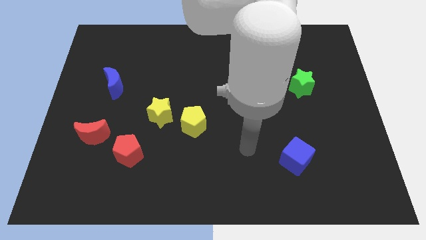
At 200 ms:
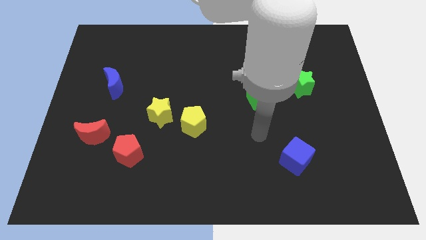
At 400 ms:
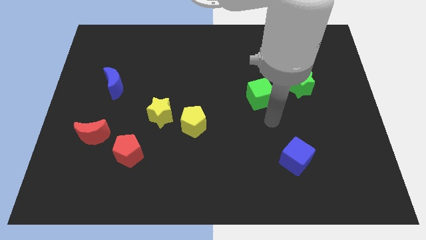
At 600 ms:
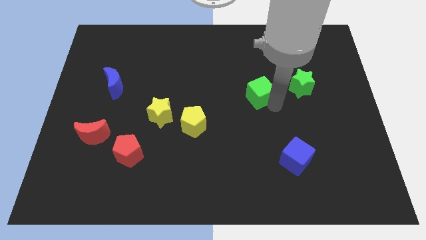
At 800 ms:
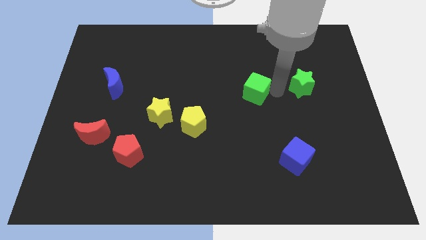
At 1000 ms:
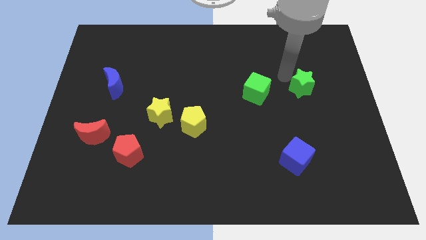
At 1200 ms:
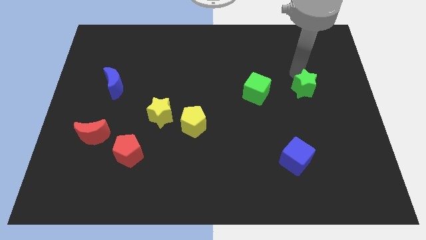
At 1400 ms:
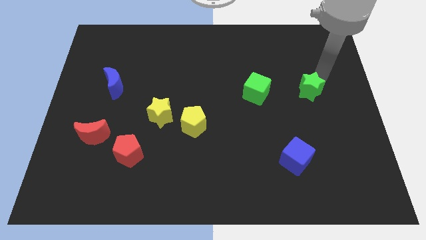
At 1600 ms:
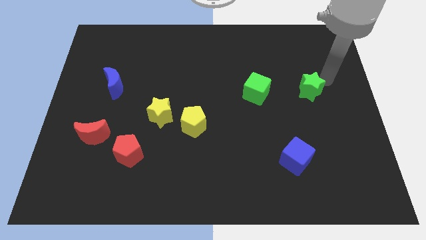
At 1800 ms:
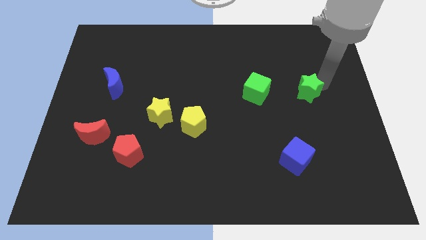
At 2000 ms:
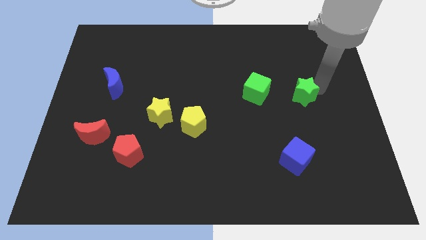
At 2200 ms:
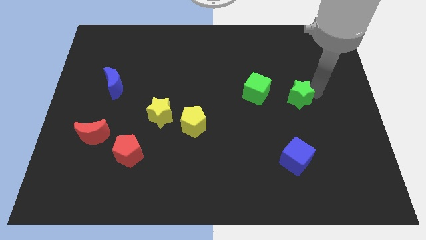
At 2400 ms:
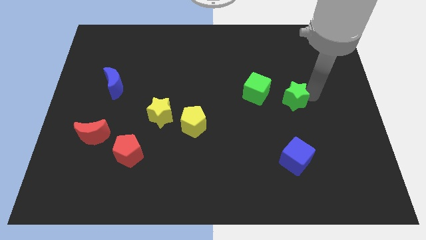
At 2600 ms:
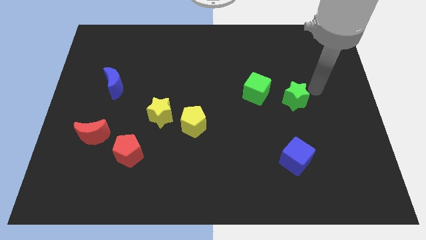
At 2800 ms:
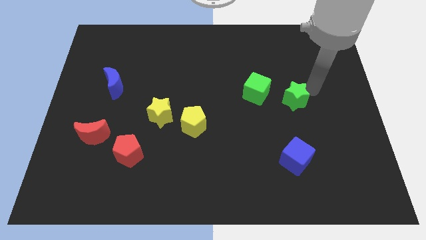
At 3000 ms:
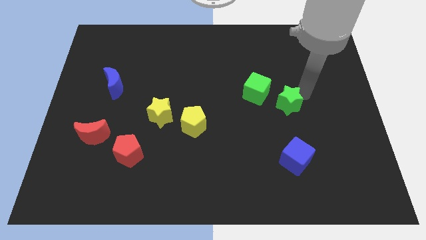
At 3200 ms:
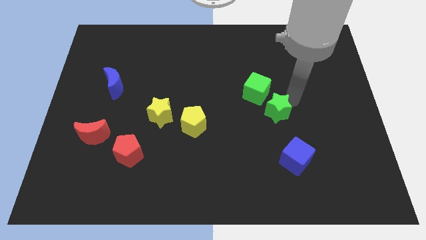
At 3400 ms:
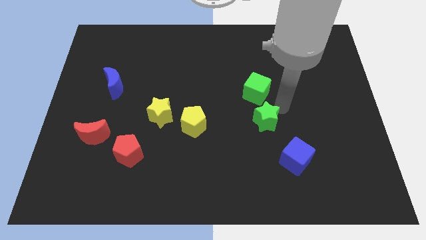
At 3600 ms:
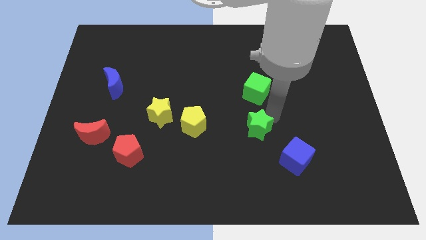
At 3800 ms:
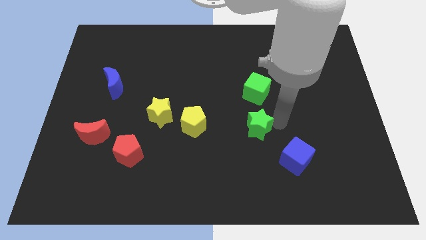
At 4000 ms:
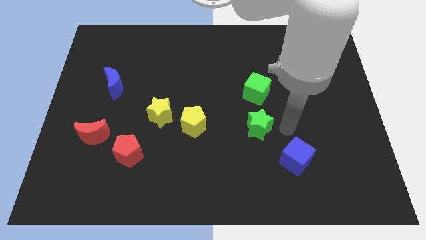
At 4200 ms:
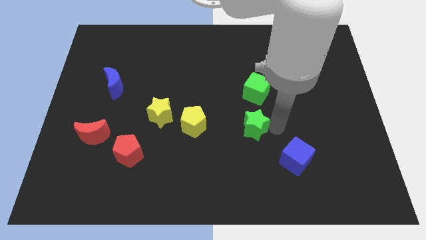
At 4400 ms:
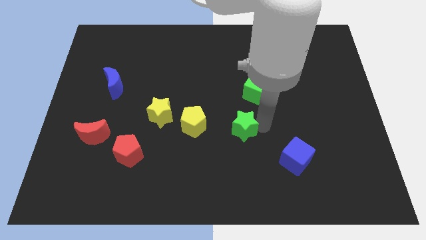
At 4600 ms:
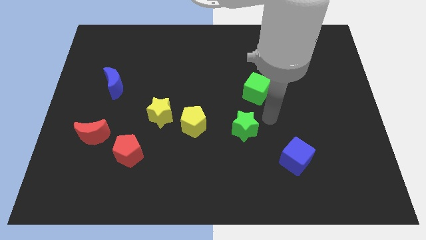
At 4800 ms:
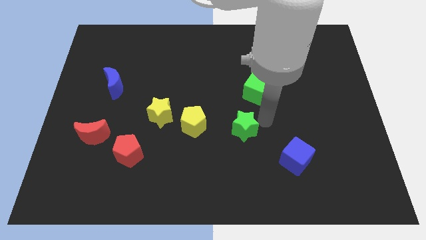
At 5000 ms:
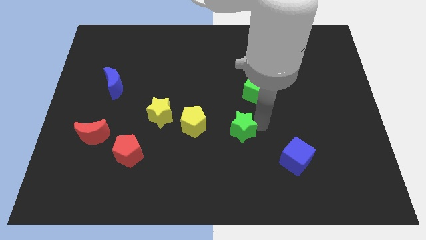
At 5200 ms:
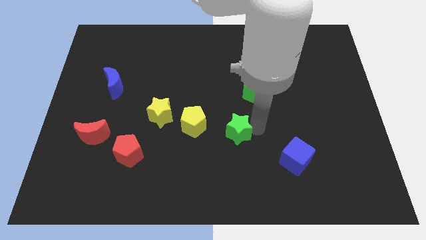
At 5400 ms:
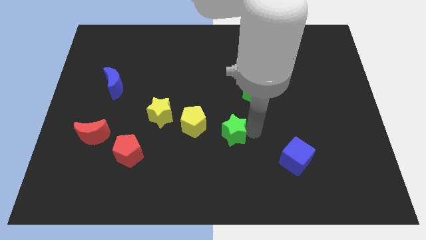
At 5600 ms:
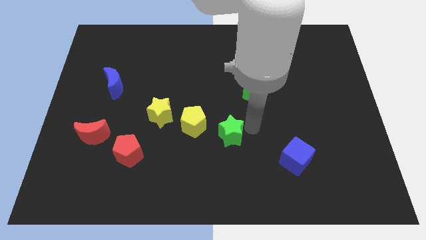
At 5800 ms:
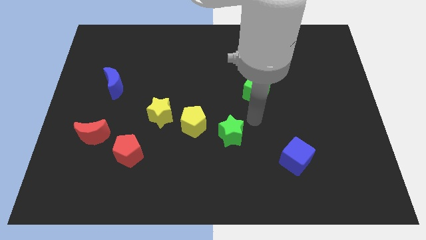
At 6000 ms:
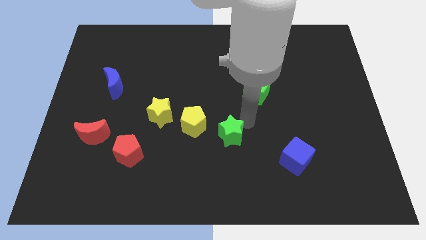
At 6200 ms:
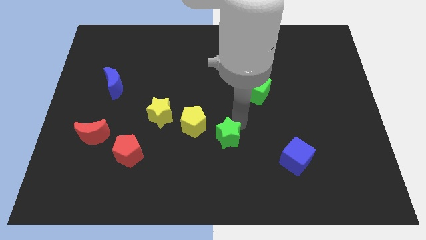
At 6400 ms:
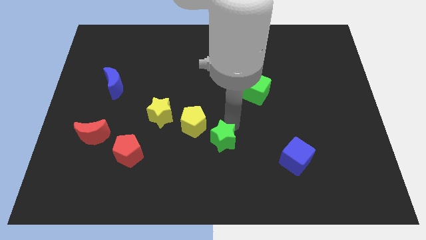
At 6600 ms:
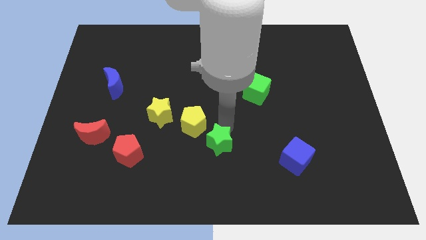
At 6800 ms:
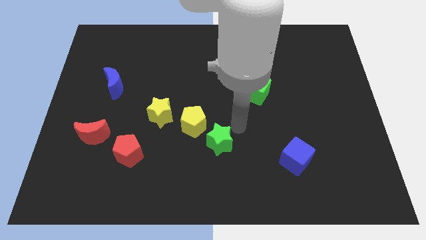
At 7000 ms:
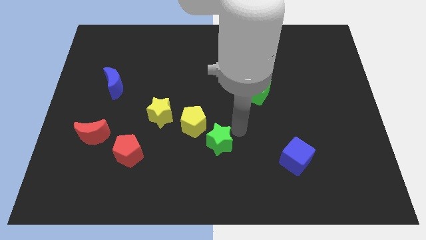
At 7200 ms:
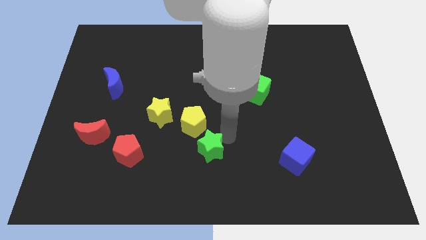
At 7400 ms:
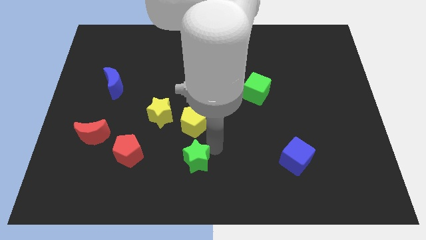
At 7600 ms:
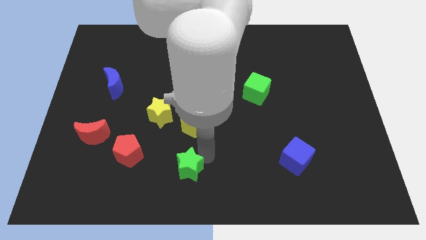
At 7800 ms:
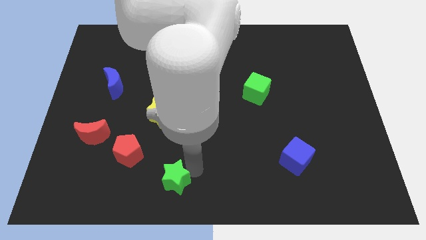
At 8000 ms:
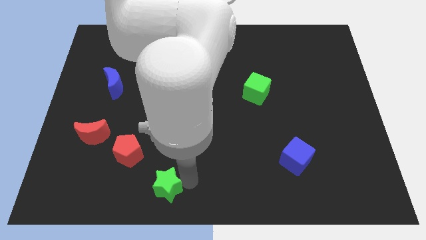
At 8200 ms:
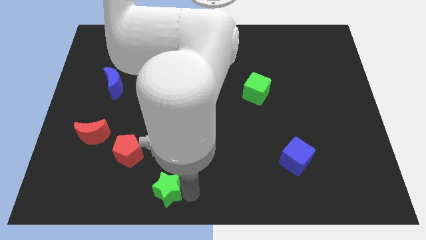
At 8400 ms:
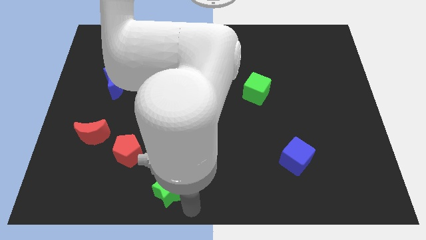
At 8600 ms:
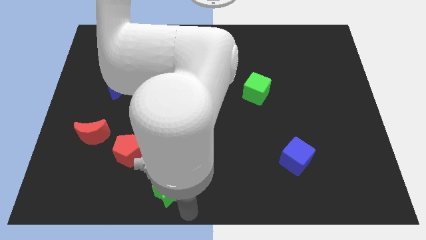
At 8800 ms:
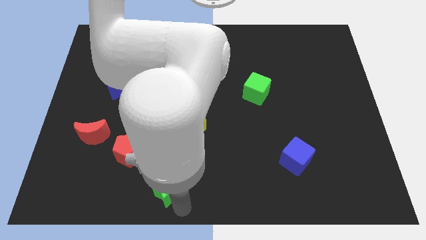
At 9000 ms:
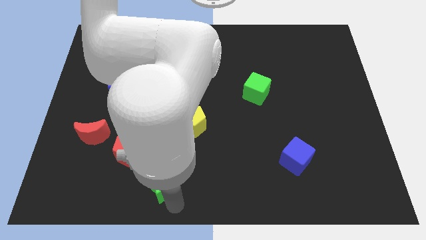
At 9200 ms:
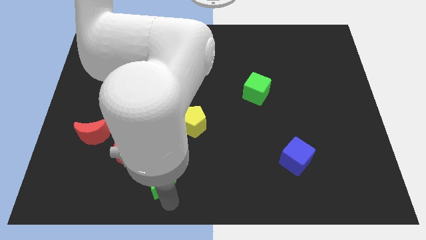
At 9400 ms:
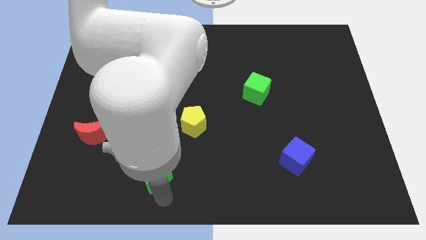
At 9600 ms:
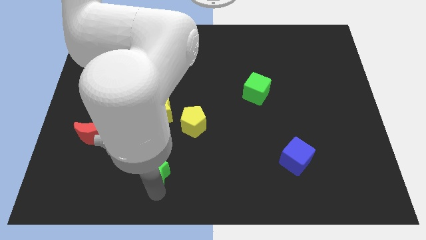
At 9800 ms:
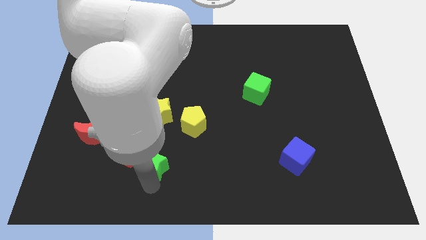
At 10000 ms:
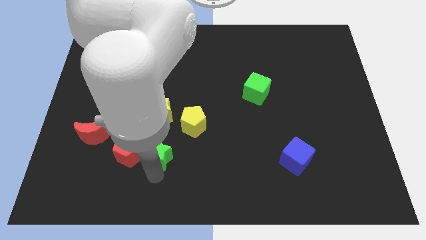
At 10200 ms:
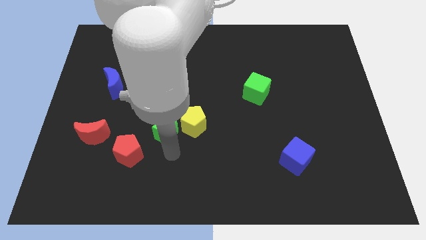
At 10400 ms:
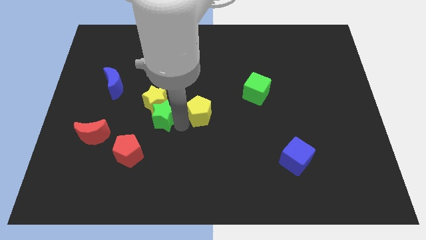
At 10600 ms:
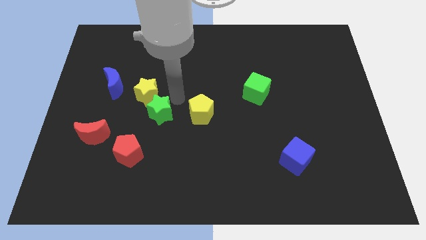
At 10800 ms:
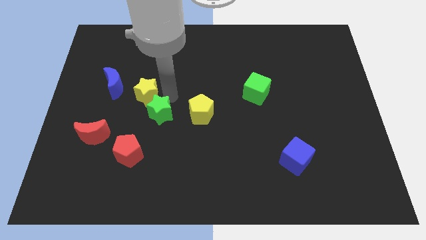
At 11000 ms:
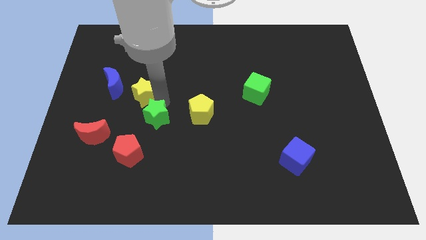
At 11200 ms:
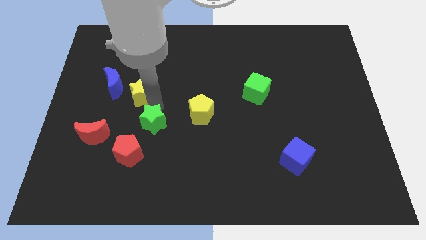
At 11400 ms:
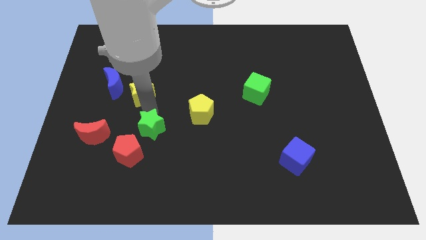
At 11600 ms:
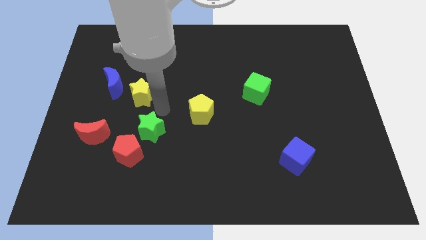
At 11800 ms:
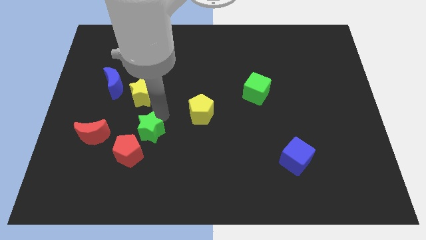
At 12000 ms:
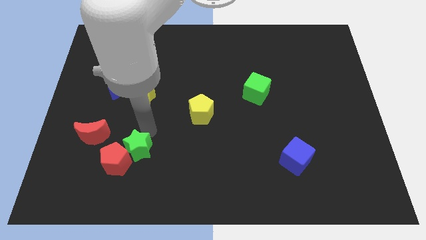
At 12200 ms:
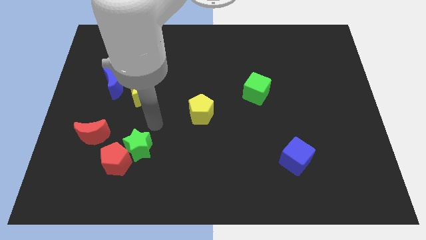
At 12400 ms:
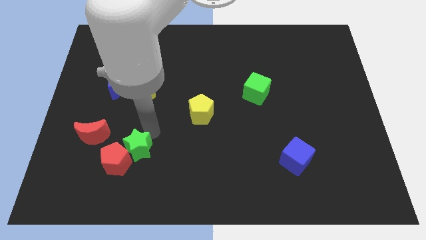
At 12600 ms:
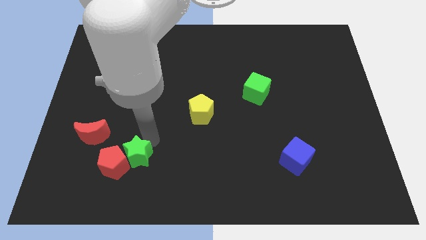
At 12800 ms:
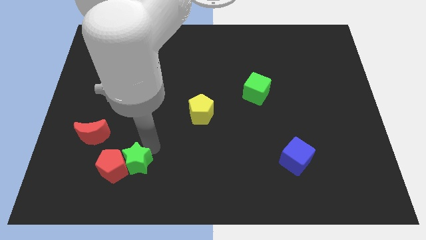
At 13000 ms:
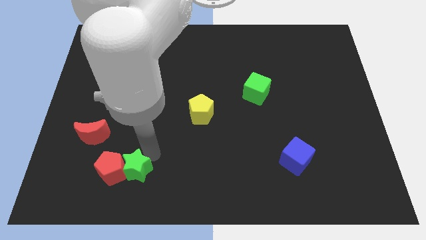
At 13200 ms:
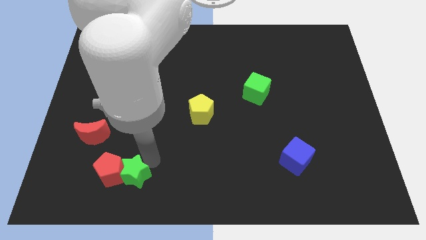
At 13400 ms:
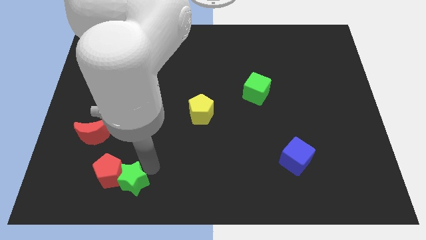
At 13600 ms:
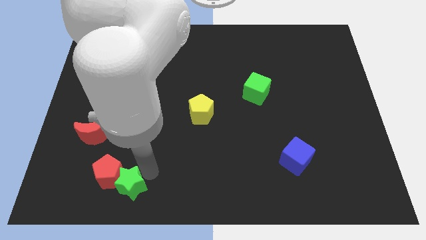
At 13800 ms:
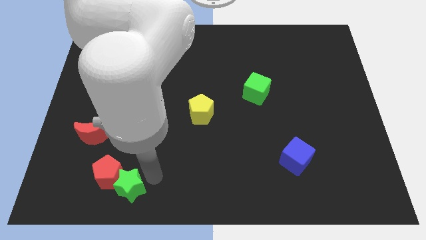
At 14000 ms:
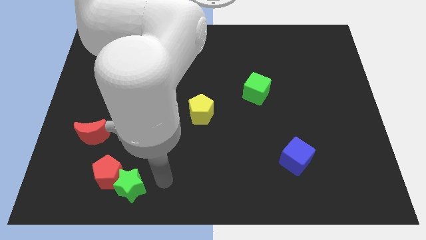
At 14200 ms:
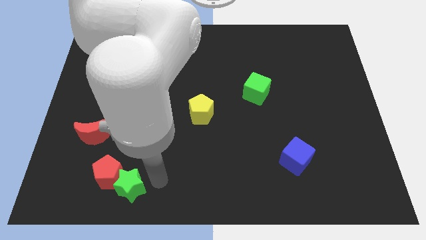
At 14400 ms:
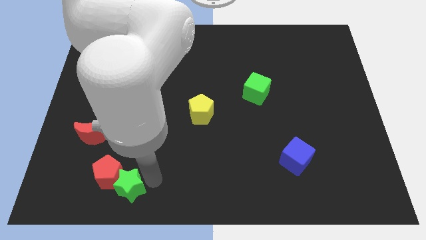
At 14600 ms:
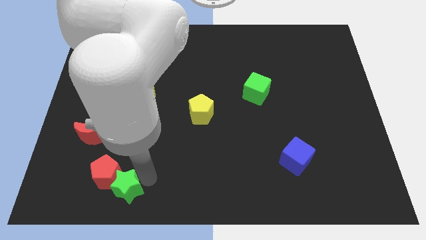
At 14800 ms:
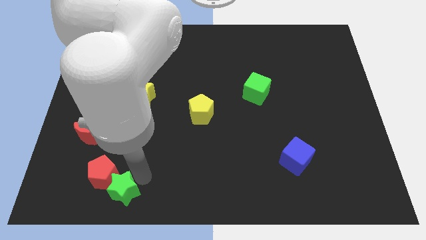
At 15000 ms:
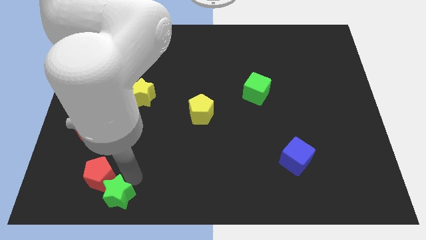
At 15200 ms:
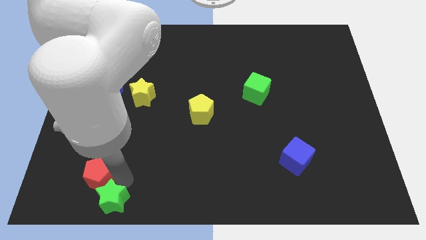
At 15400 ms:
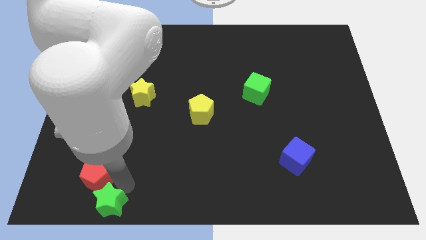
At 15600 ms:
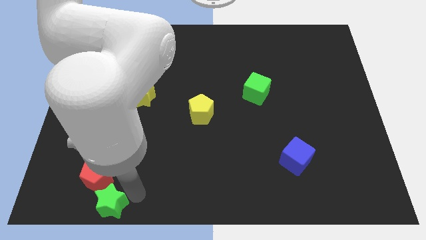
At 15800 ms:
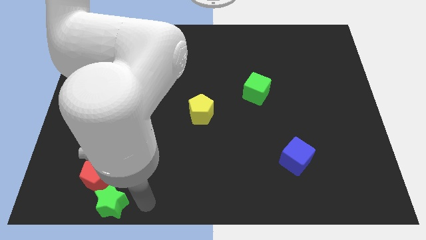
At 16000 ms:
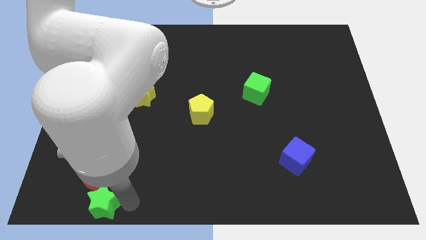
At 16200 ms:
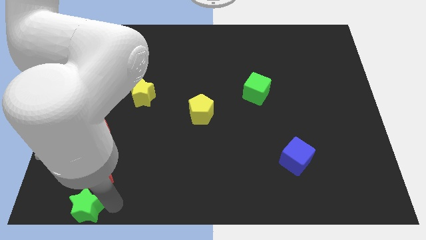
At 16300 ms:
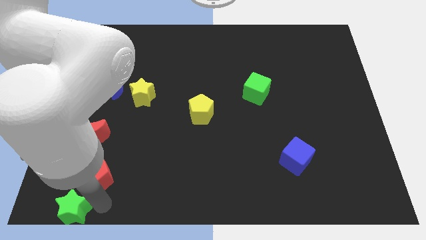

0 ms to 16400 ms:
put the green star to the bottom left
